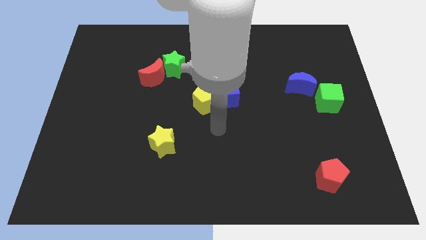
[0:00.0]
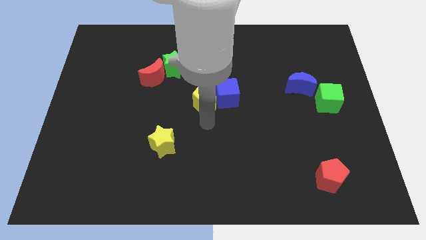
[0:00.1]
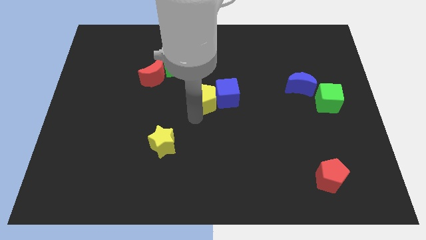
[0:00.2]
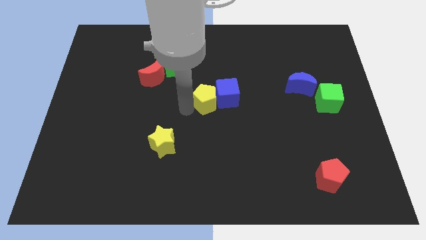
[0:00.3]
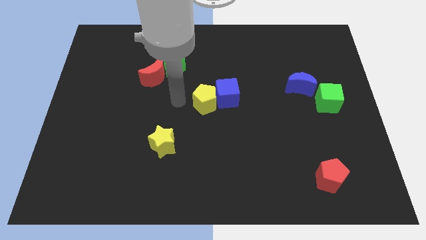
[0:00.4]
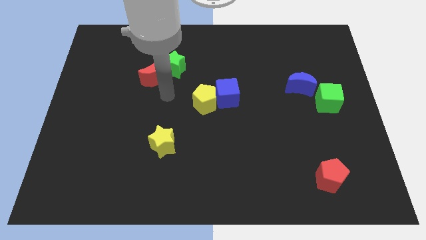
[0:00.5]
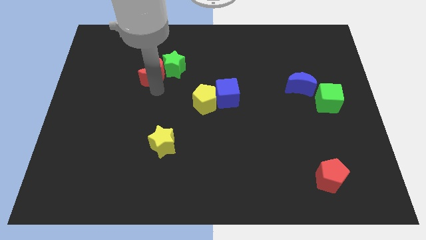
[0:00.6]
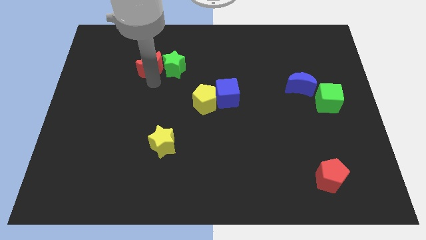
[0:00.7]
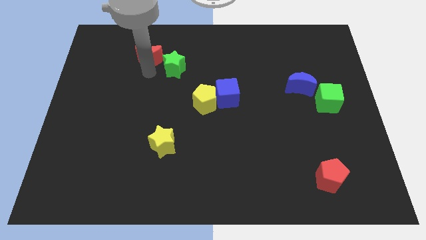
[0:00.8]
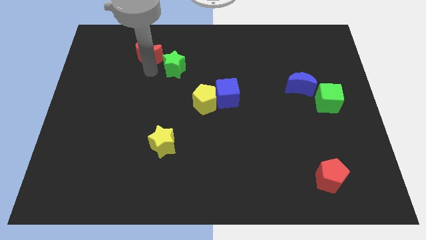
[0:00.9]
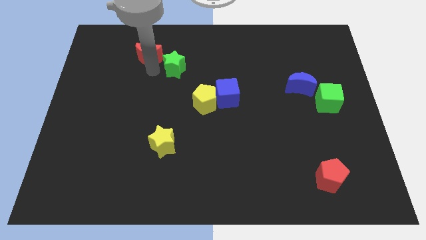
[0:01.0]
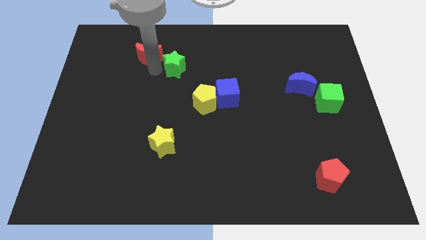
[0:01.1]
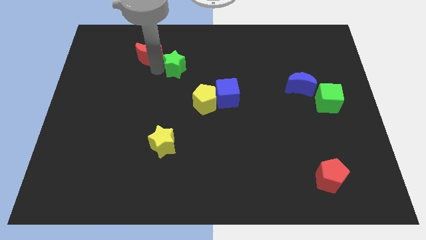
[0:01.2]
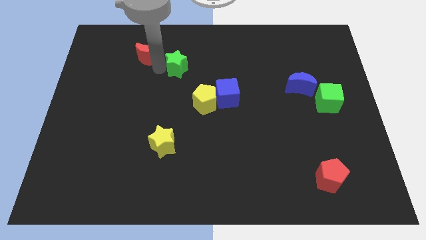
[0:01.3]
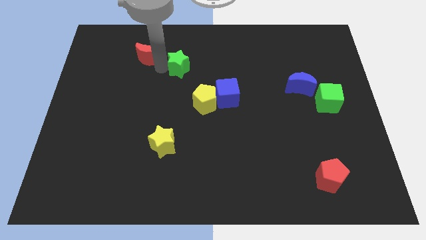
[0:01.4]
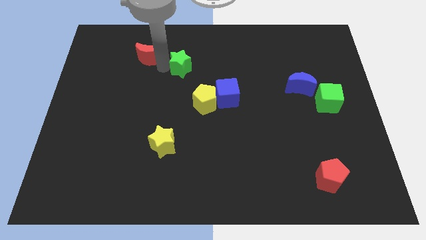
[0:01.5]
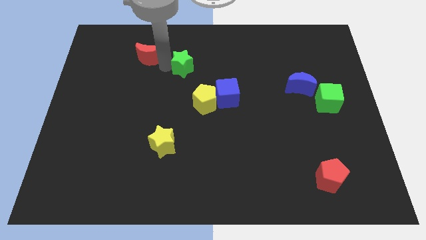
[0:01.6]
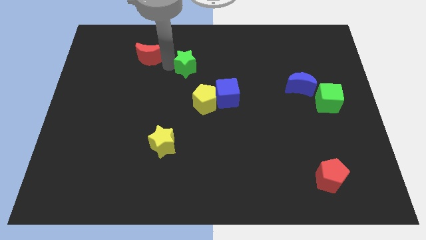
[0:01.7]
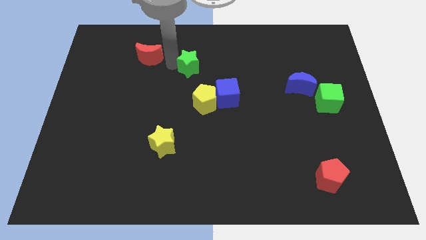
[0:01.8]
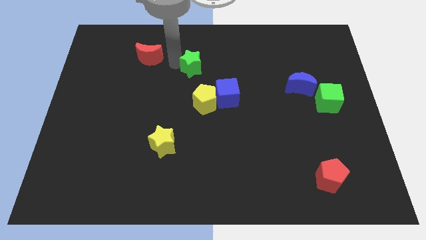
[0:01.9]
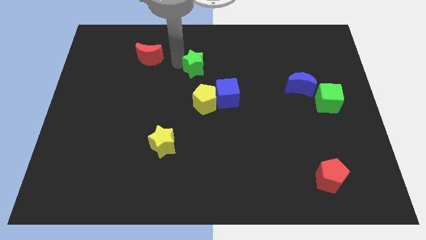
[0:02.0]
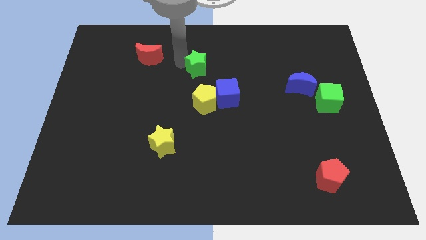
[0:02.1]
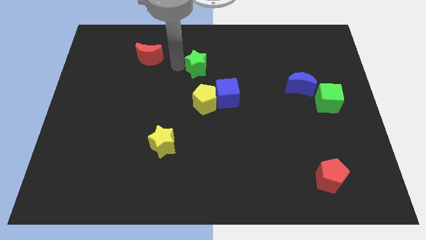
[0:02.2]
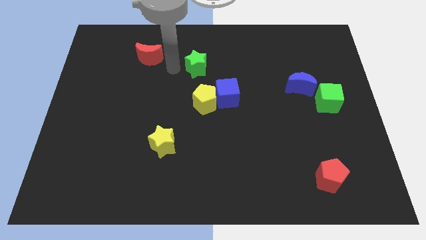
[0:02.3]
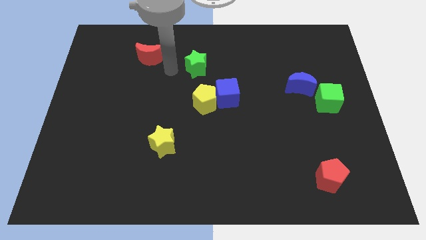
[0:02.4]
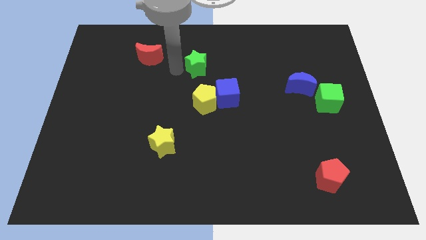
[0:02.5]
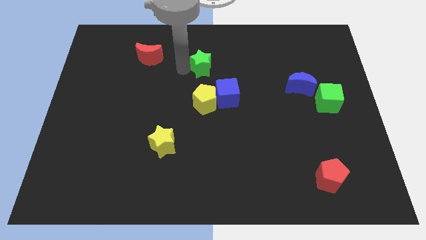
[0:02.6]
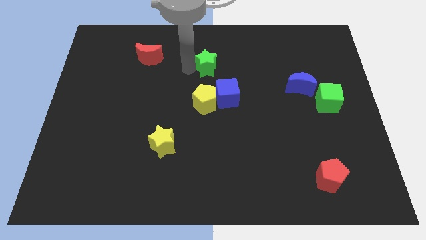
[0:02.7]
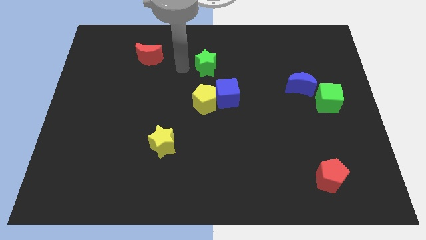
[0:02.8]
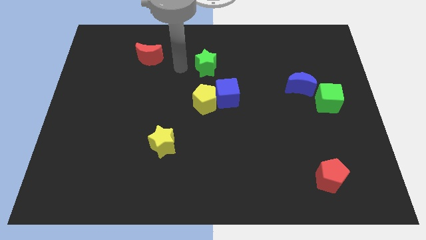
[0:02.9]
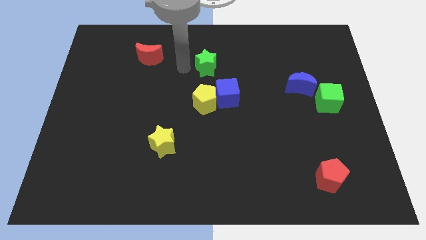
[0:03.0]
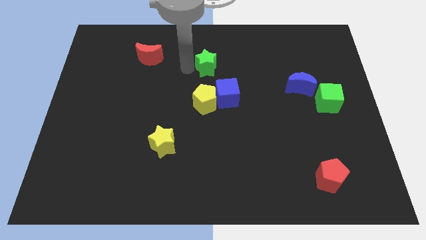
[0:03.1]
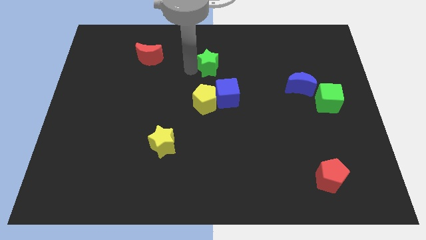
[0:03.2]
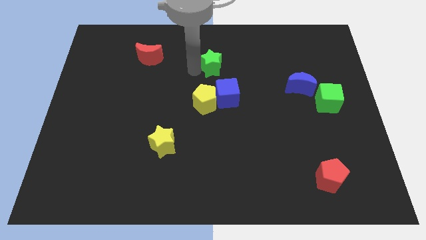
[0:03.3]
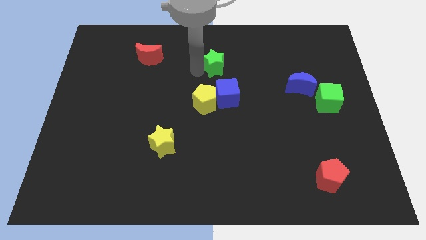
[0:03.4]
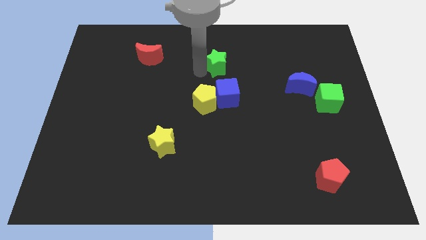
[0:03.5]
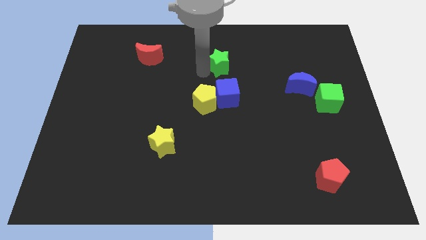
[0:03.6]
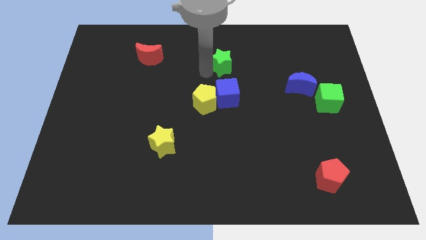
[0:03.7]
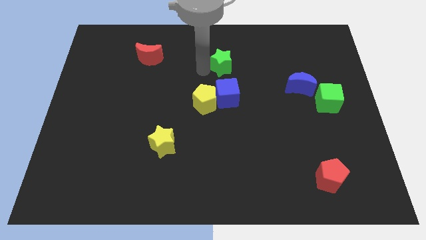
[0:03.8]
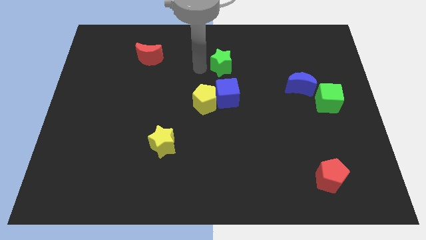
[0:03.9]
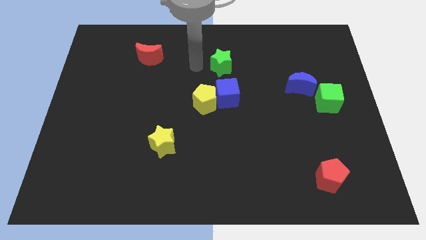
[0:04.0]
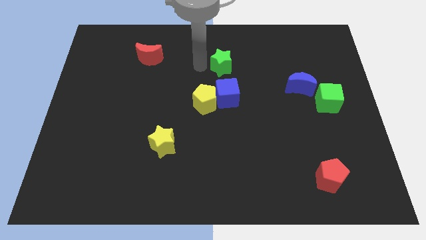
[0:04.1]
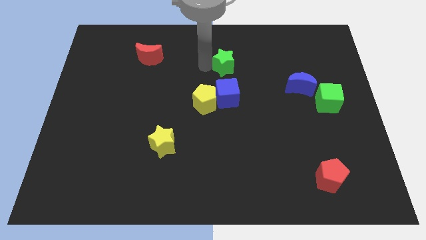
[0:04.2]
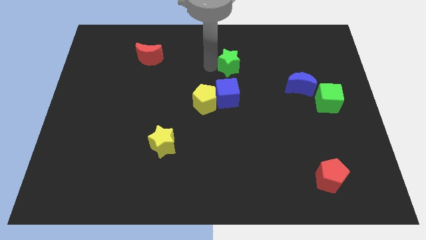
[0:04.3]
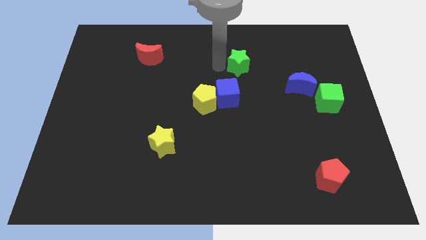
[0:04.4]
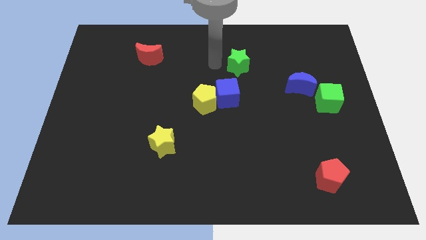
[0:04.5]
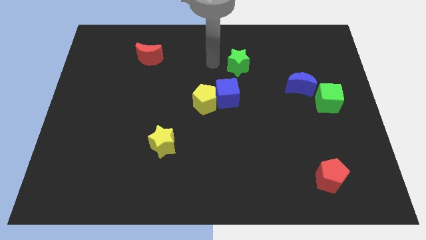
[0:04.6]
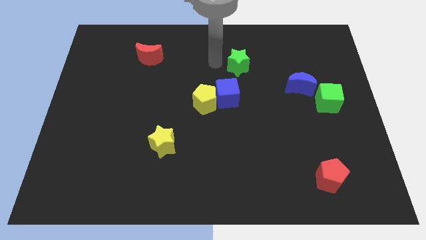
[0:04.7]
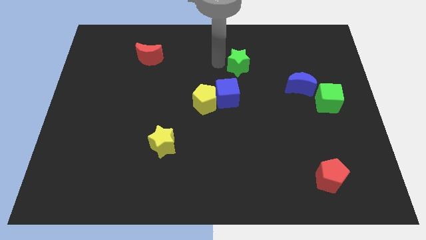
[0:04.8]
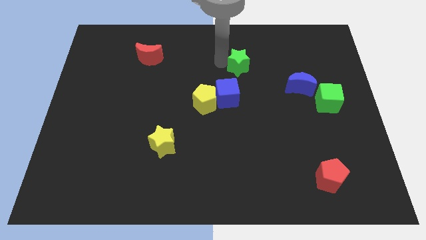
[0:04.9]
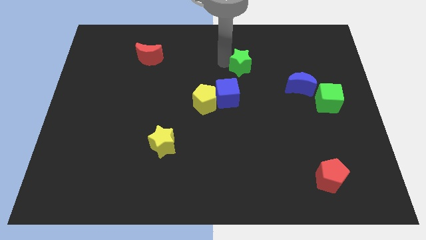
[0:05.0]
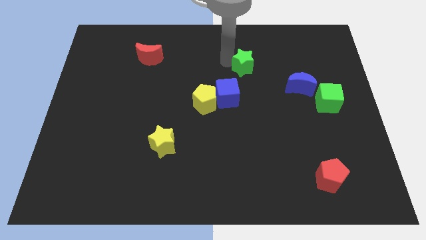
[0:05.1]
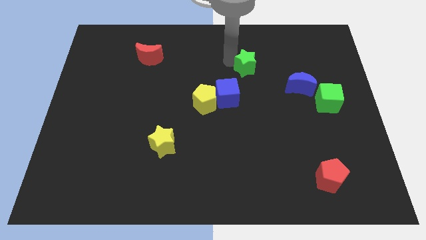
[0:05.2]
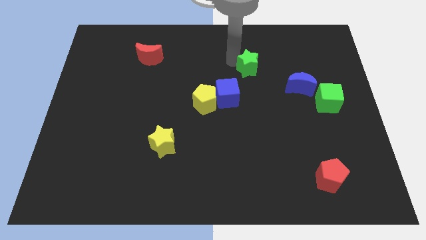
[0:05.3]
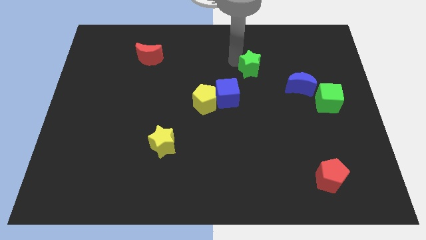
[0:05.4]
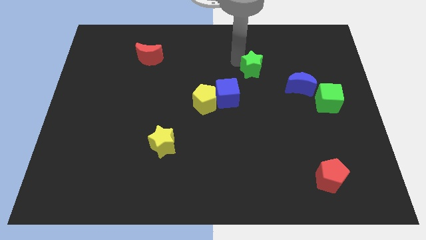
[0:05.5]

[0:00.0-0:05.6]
push the green star right

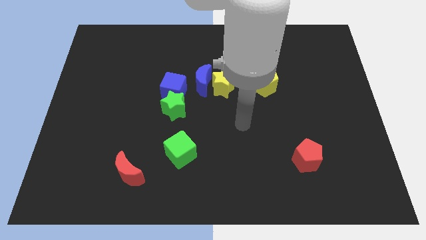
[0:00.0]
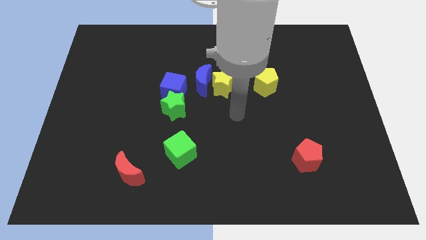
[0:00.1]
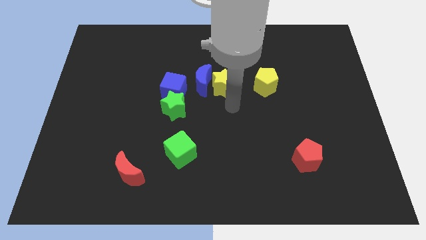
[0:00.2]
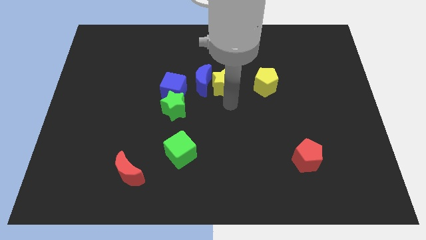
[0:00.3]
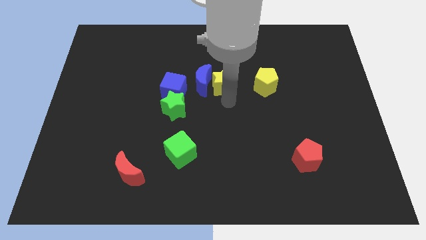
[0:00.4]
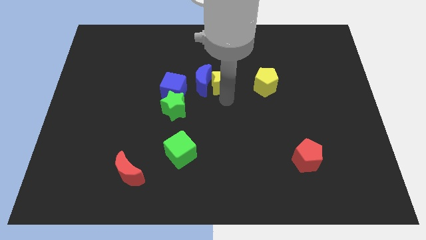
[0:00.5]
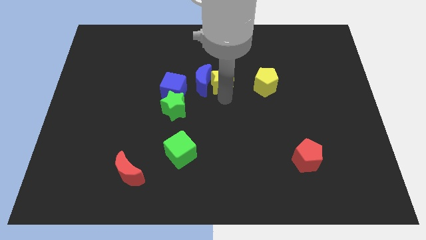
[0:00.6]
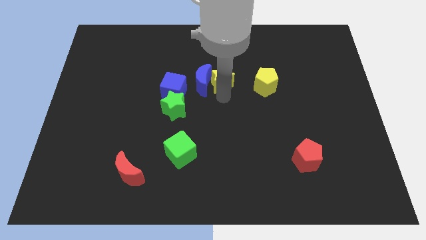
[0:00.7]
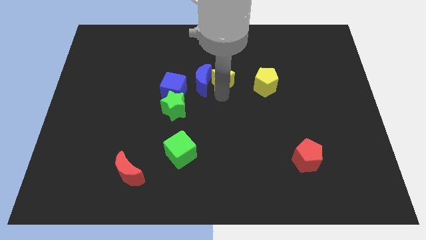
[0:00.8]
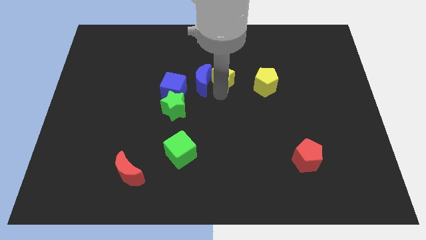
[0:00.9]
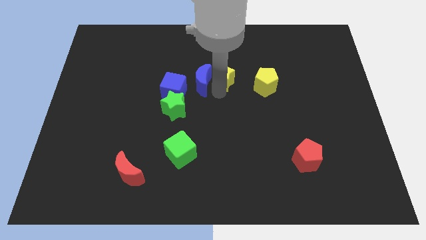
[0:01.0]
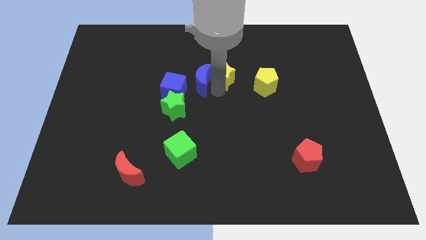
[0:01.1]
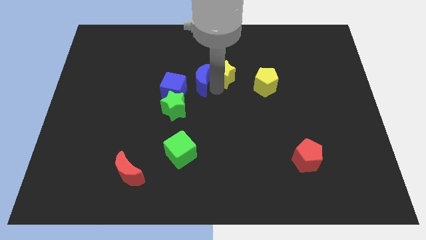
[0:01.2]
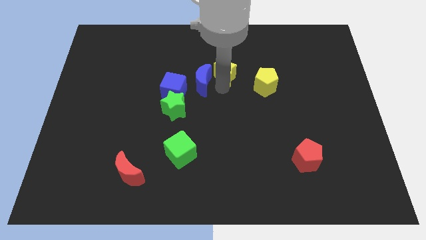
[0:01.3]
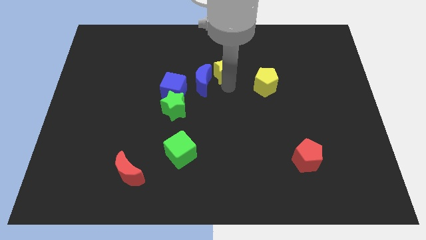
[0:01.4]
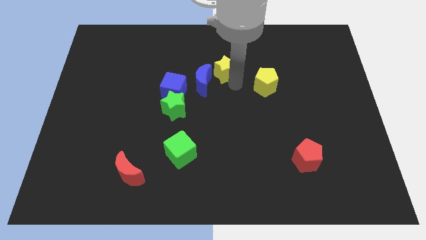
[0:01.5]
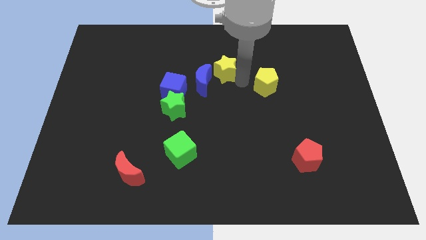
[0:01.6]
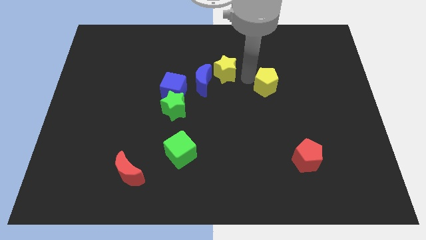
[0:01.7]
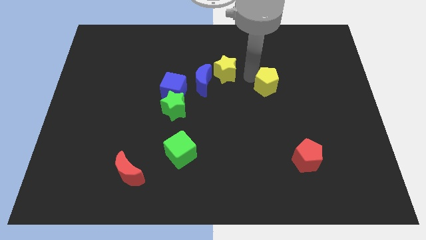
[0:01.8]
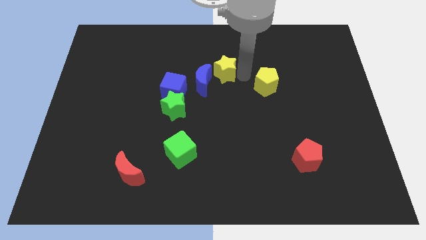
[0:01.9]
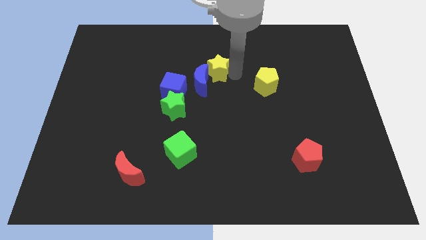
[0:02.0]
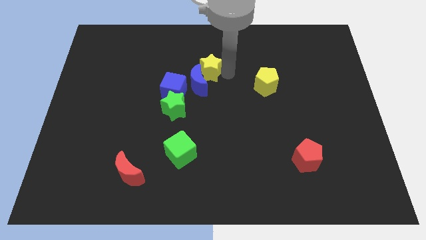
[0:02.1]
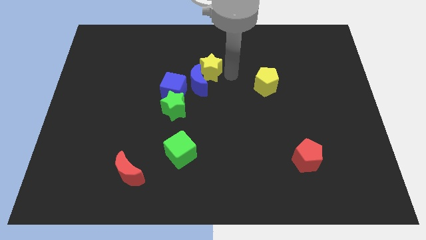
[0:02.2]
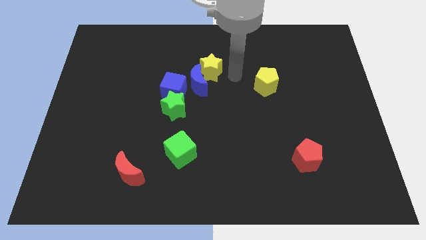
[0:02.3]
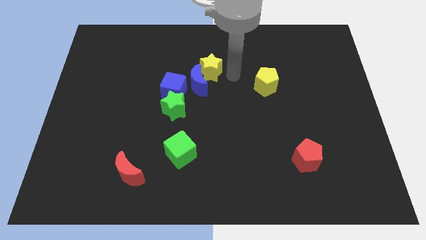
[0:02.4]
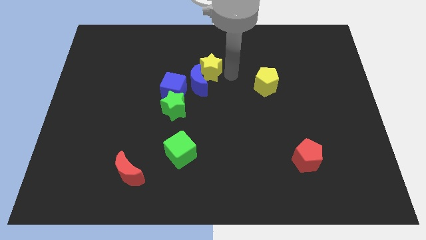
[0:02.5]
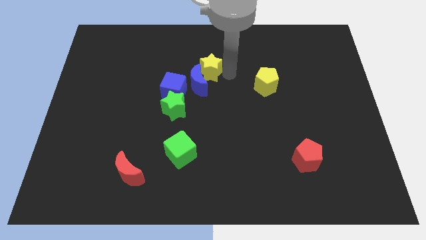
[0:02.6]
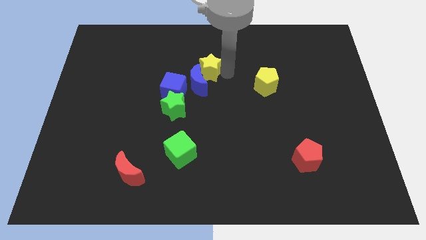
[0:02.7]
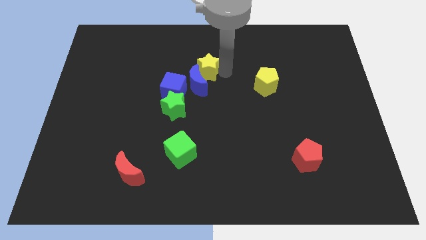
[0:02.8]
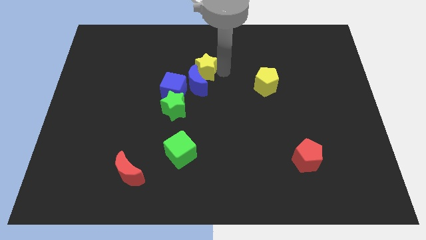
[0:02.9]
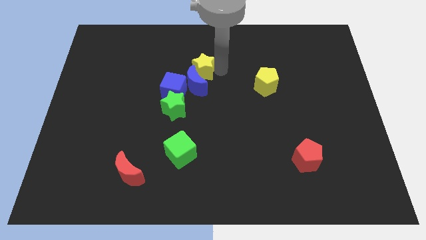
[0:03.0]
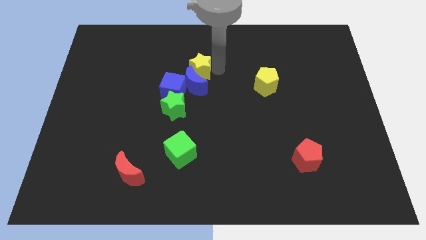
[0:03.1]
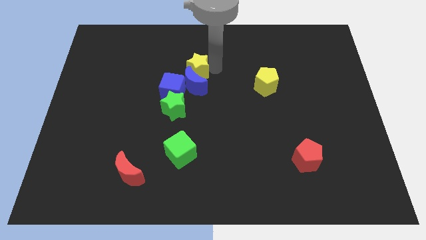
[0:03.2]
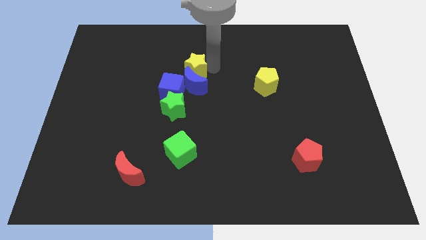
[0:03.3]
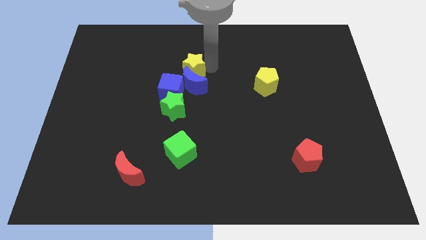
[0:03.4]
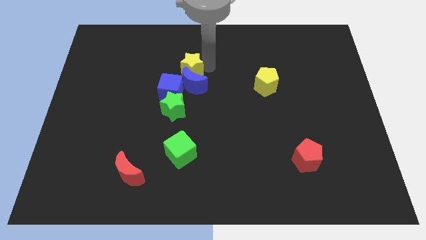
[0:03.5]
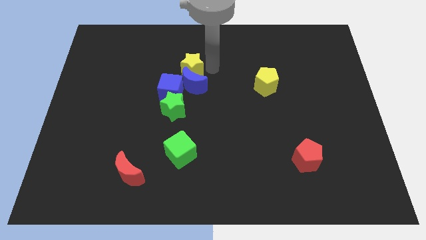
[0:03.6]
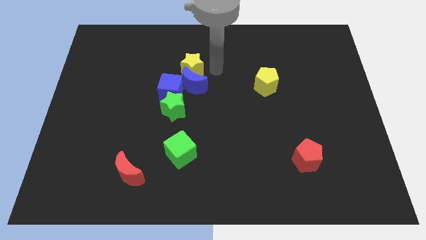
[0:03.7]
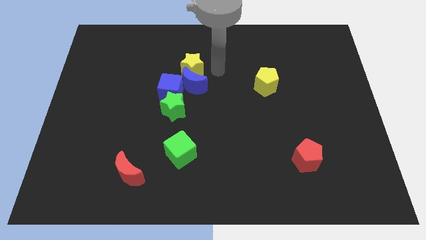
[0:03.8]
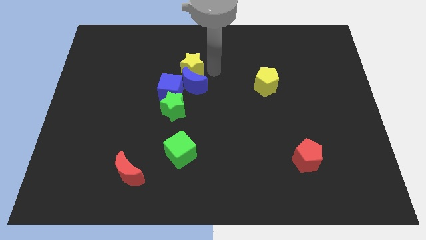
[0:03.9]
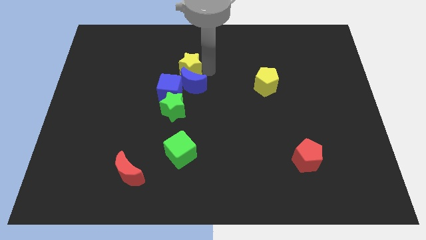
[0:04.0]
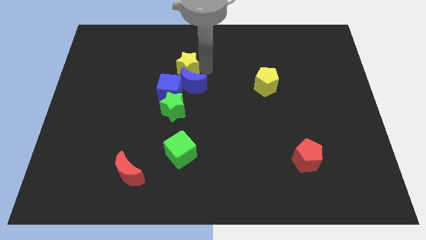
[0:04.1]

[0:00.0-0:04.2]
move the yellow star a little to the left
